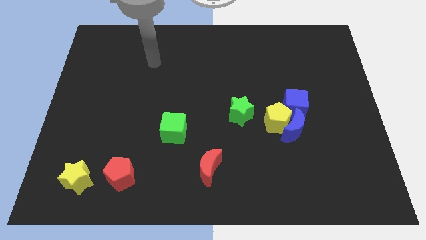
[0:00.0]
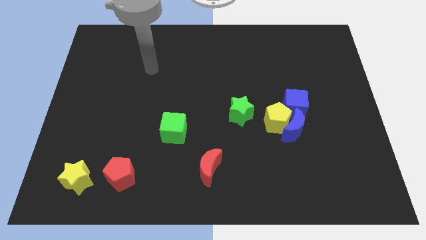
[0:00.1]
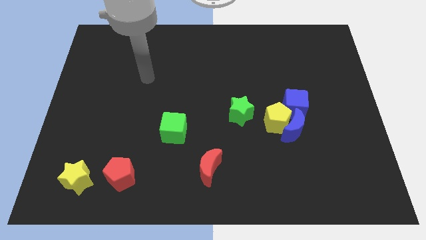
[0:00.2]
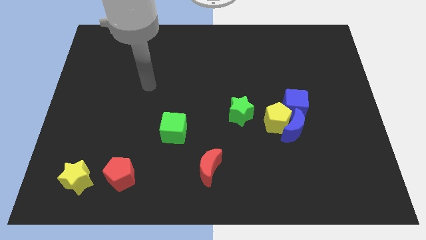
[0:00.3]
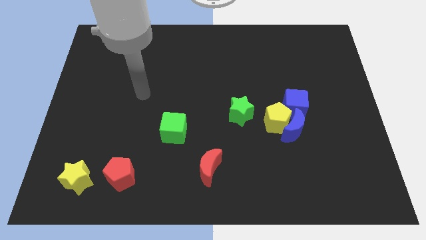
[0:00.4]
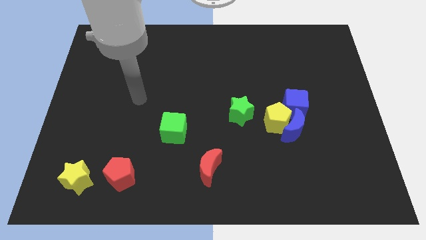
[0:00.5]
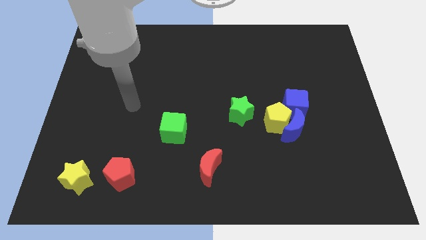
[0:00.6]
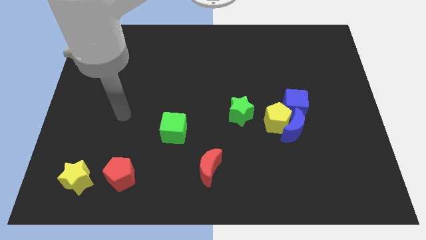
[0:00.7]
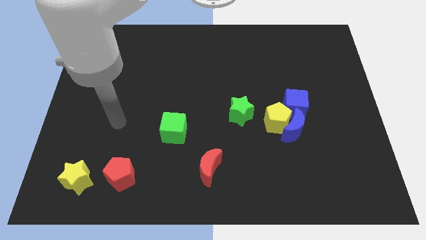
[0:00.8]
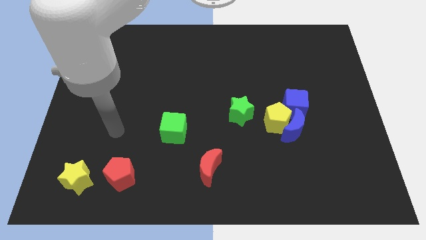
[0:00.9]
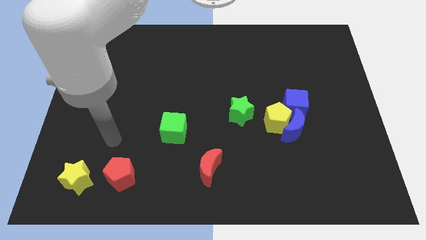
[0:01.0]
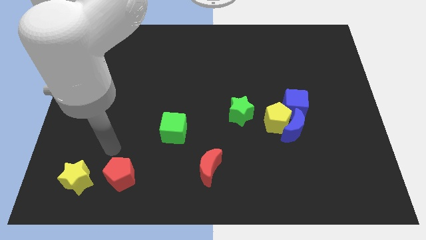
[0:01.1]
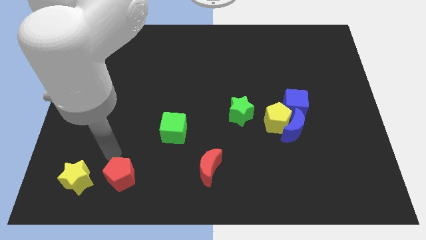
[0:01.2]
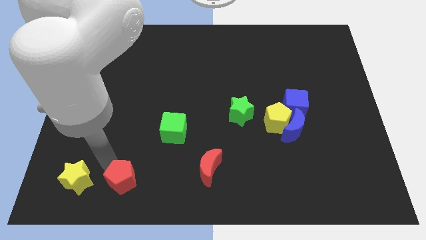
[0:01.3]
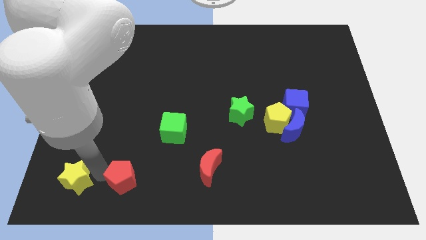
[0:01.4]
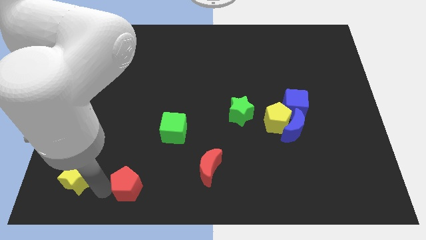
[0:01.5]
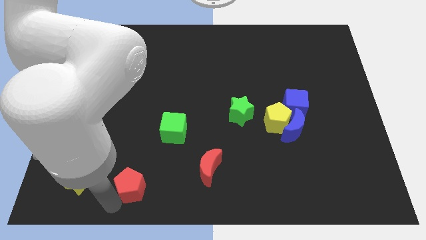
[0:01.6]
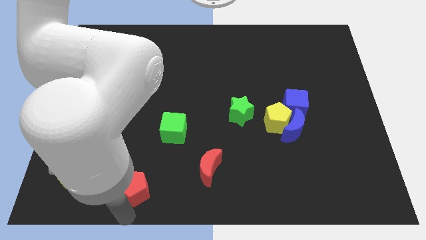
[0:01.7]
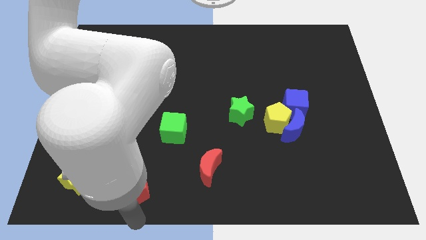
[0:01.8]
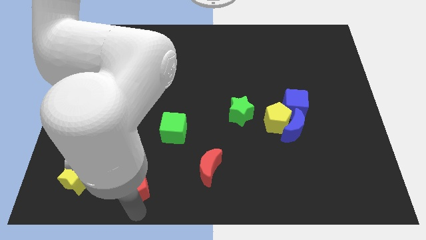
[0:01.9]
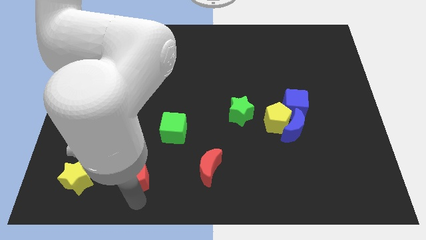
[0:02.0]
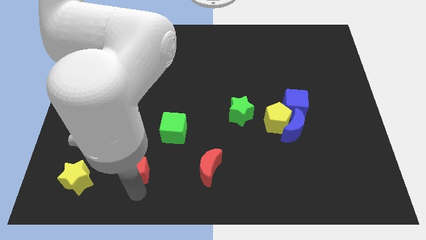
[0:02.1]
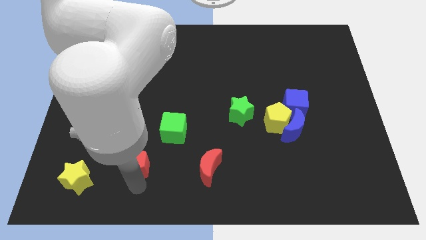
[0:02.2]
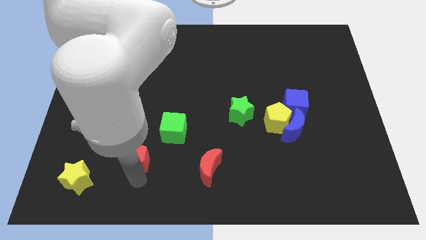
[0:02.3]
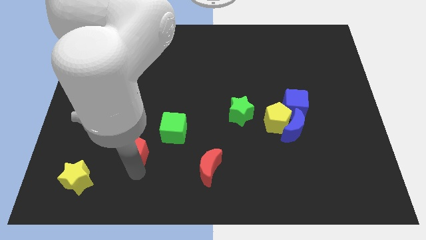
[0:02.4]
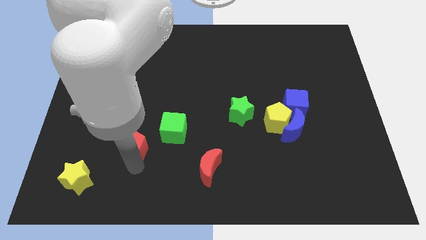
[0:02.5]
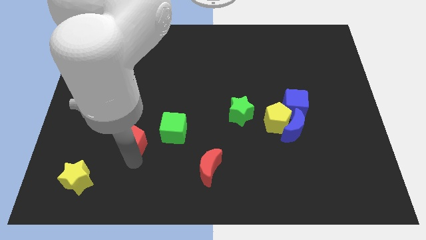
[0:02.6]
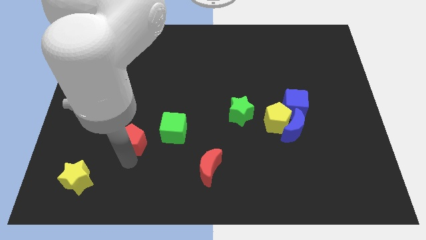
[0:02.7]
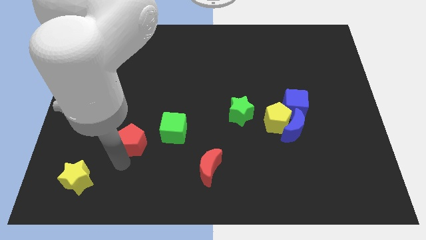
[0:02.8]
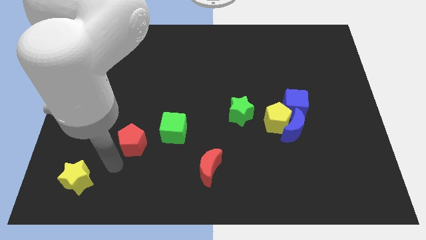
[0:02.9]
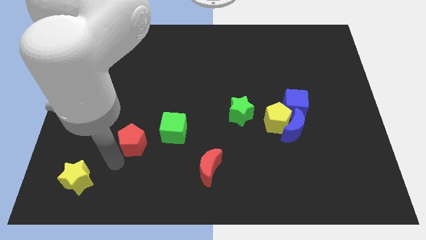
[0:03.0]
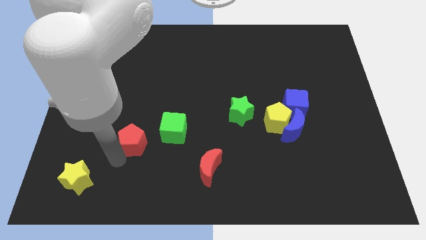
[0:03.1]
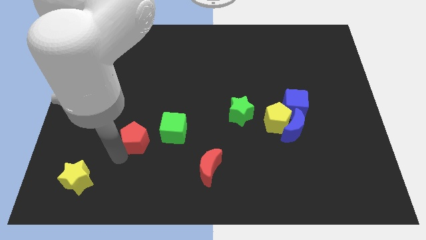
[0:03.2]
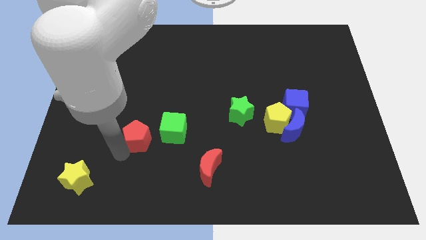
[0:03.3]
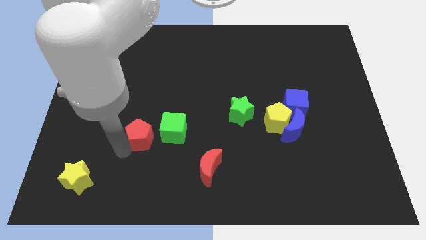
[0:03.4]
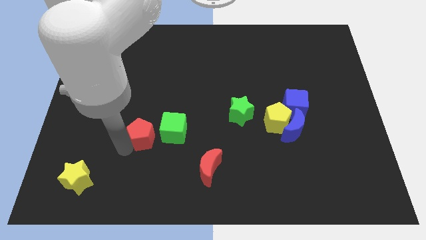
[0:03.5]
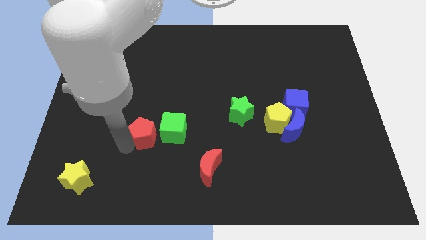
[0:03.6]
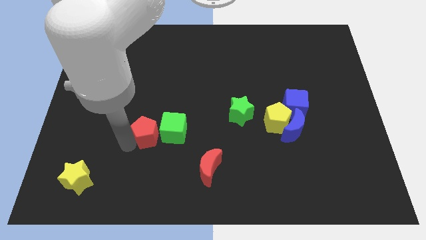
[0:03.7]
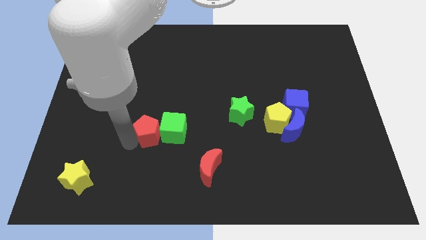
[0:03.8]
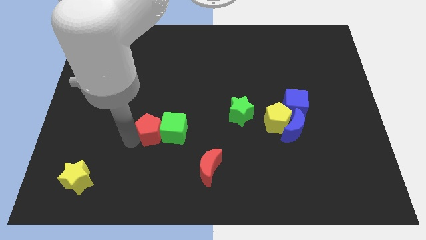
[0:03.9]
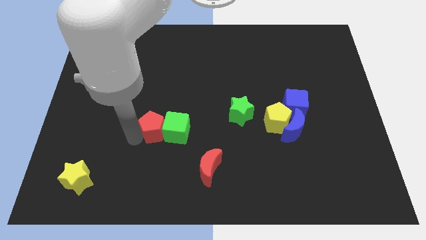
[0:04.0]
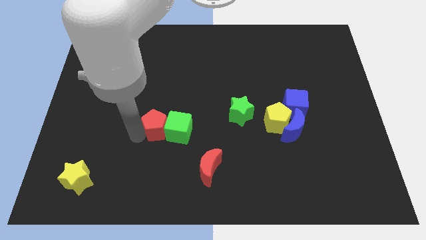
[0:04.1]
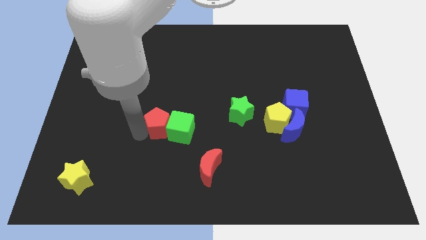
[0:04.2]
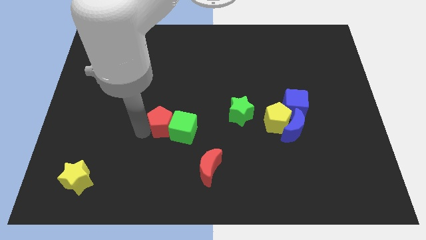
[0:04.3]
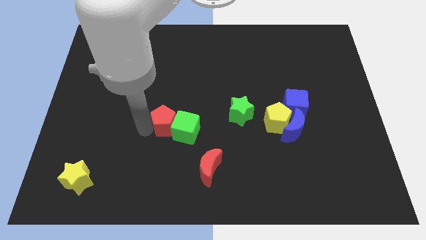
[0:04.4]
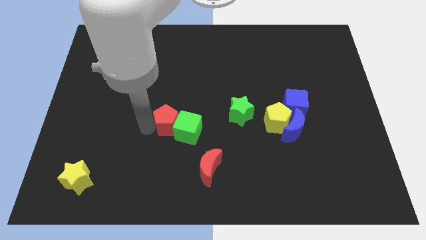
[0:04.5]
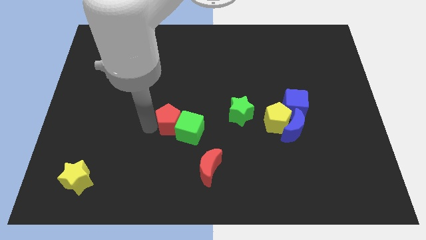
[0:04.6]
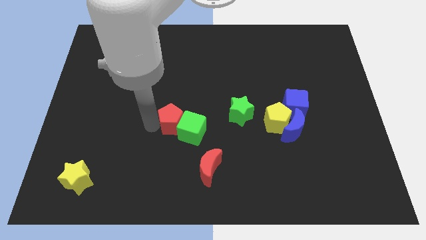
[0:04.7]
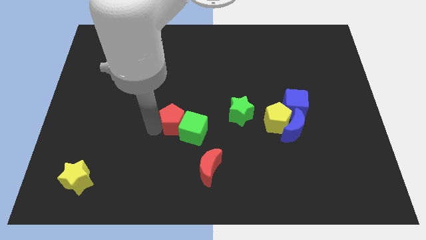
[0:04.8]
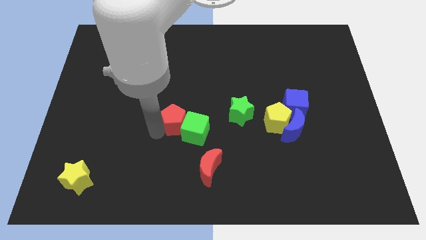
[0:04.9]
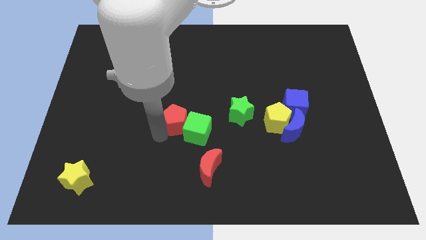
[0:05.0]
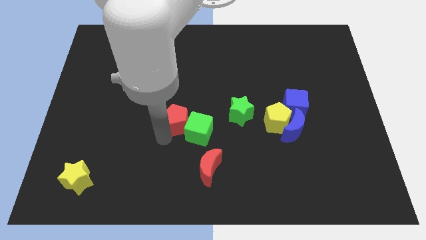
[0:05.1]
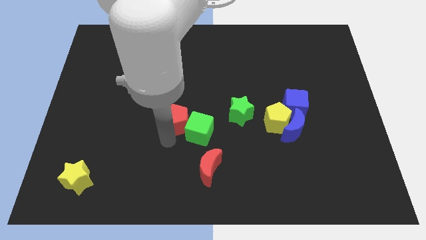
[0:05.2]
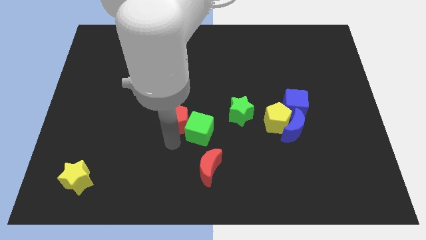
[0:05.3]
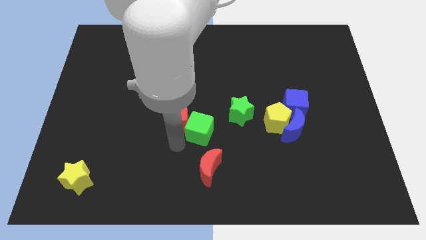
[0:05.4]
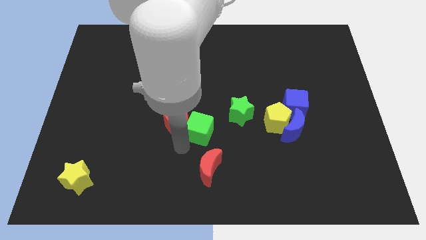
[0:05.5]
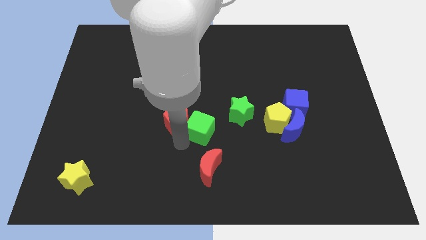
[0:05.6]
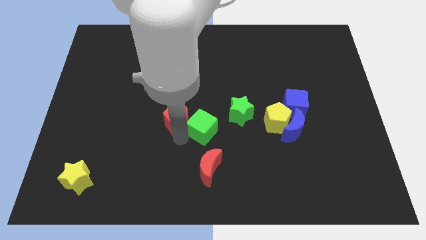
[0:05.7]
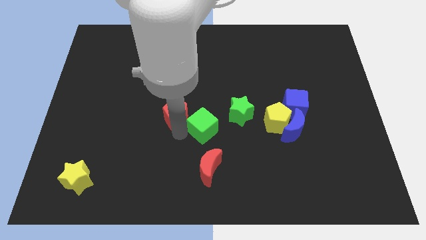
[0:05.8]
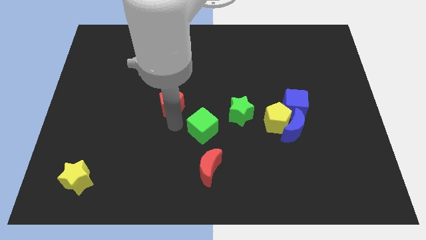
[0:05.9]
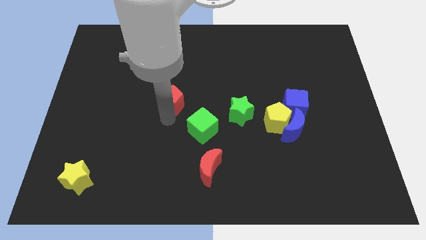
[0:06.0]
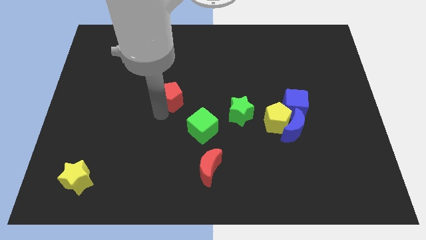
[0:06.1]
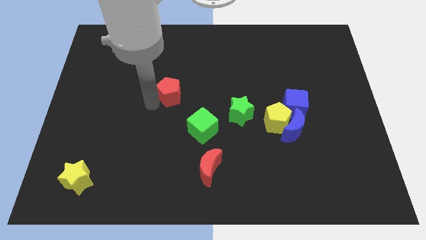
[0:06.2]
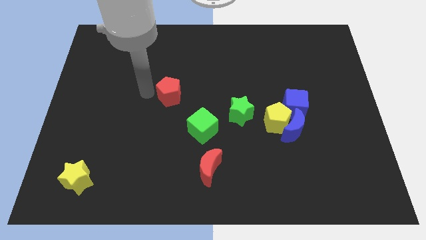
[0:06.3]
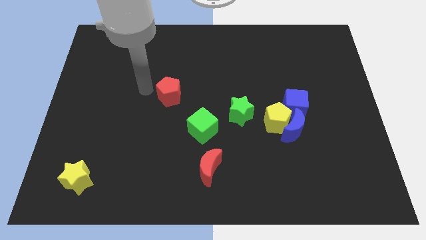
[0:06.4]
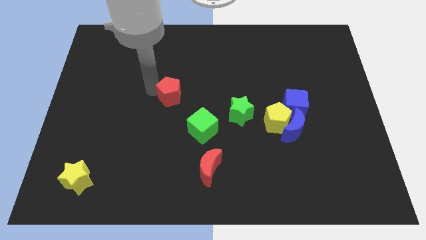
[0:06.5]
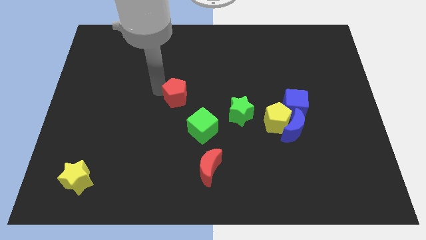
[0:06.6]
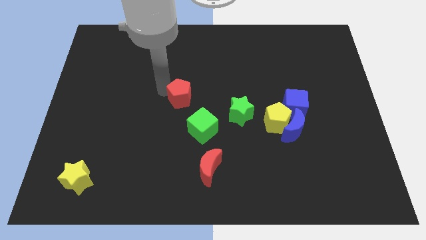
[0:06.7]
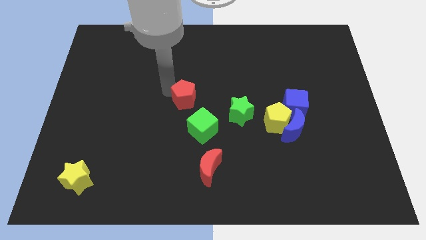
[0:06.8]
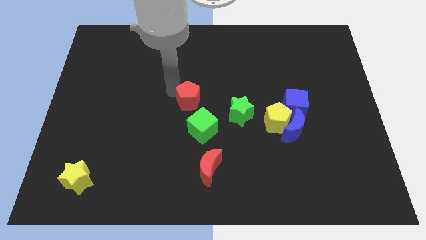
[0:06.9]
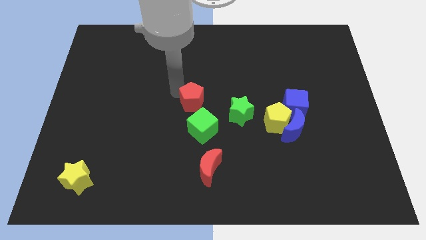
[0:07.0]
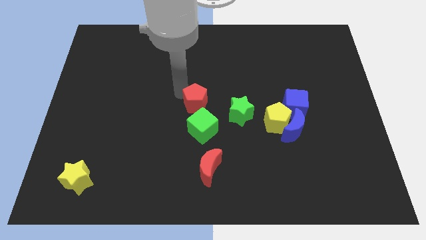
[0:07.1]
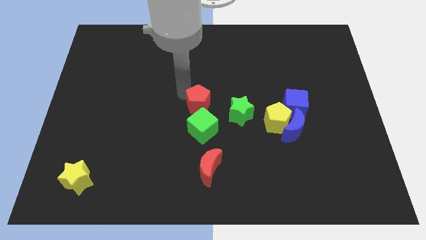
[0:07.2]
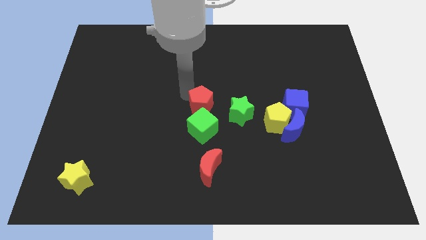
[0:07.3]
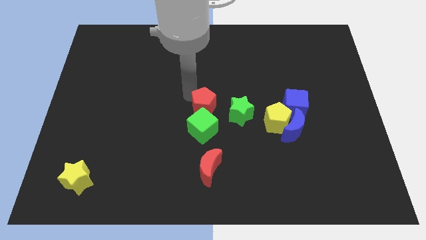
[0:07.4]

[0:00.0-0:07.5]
slide the red pentagon to the top right side of the green cube

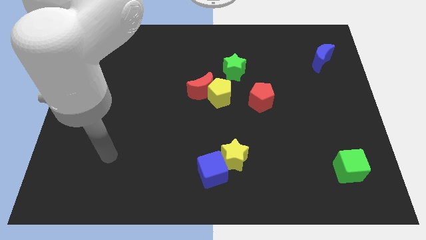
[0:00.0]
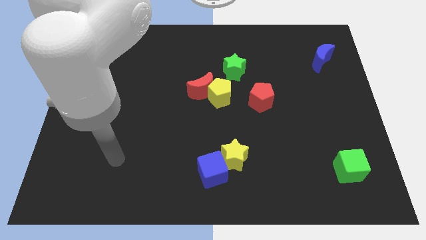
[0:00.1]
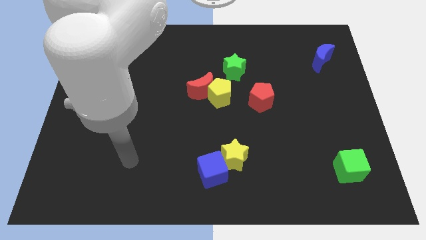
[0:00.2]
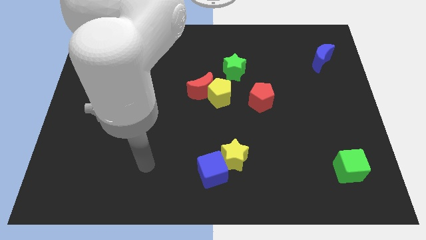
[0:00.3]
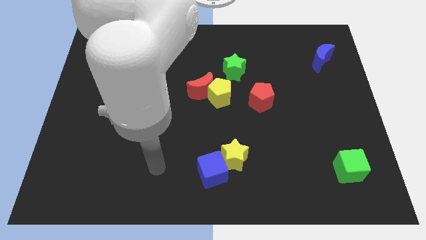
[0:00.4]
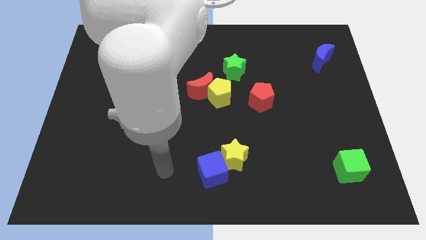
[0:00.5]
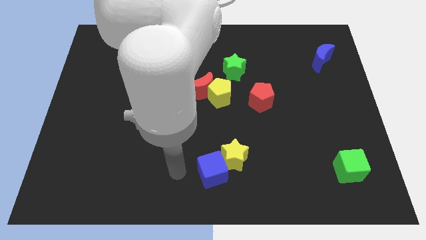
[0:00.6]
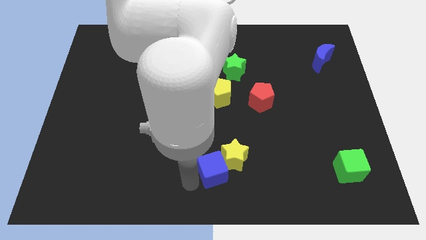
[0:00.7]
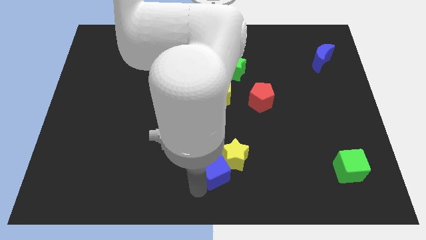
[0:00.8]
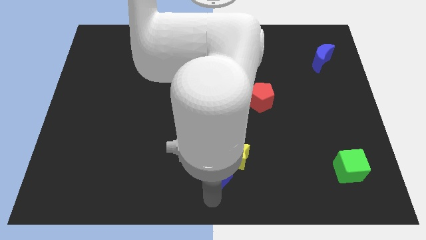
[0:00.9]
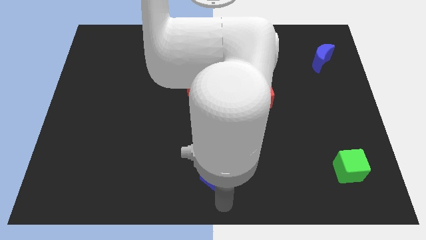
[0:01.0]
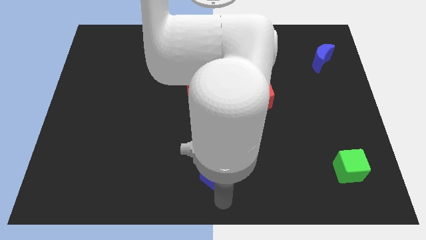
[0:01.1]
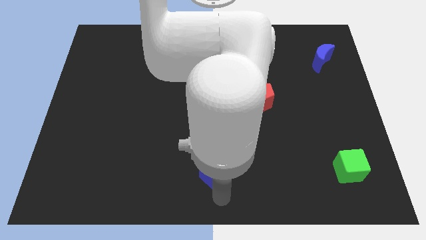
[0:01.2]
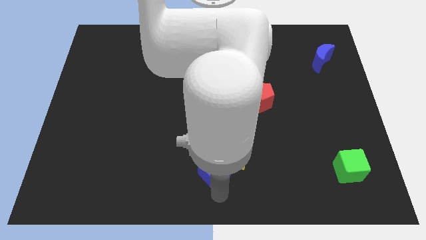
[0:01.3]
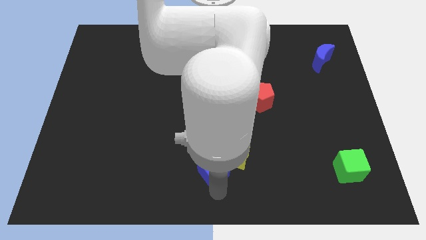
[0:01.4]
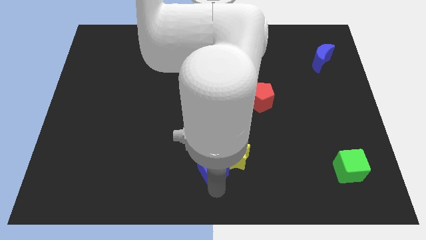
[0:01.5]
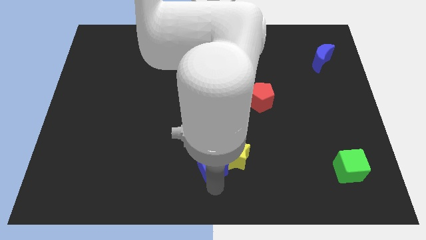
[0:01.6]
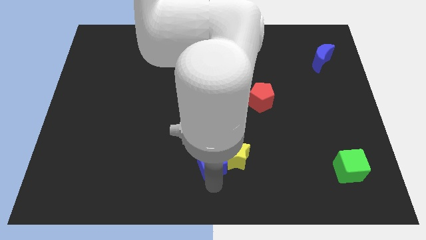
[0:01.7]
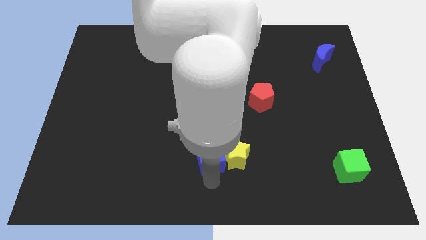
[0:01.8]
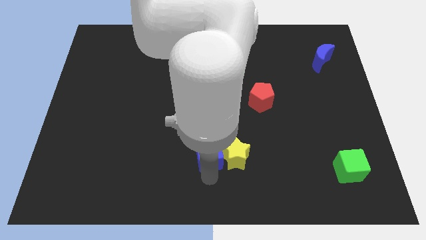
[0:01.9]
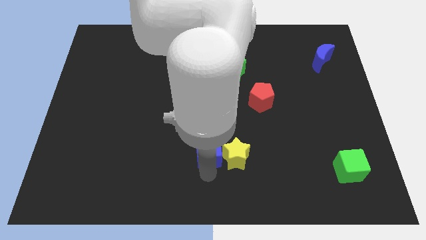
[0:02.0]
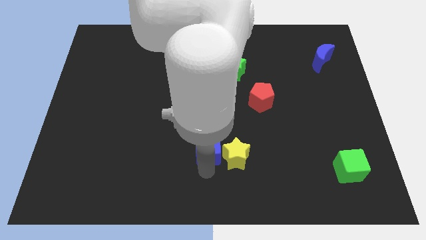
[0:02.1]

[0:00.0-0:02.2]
move the blue cube to the bottom side of the yellow pentagon
